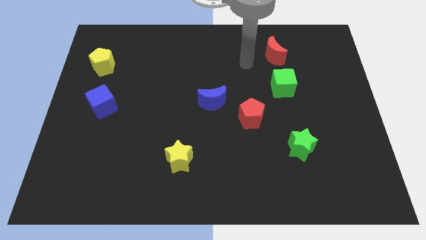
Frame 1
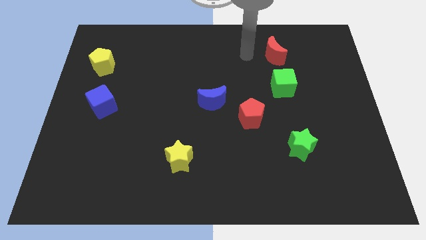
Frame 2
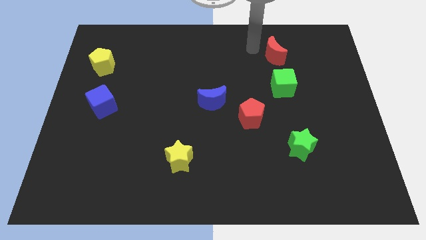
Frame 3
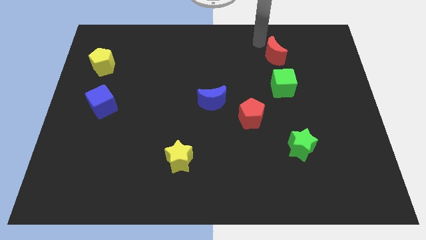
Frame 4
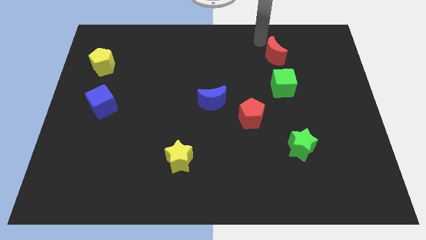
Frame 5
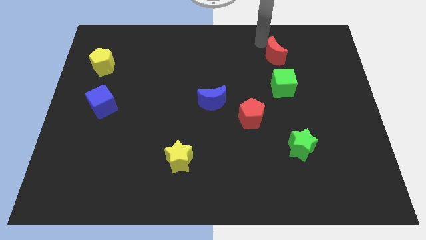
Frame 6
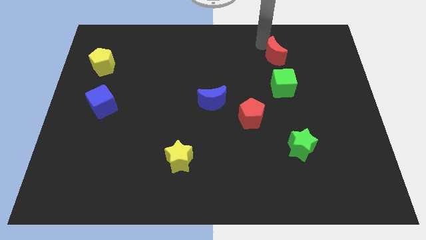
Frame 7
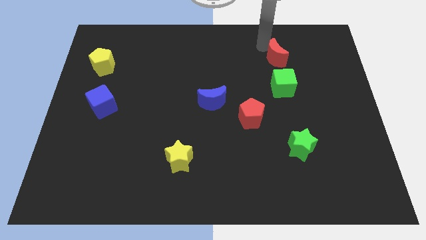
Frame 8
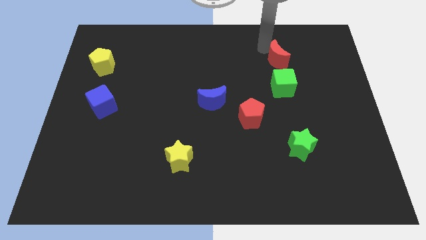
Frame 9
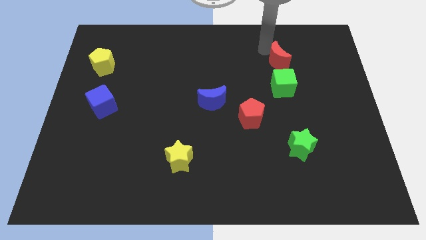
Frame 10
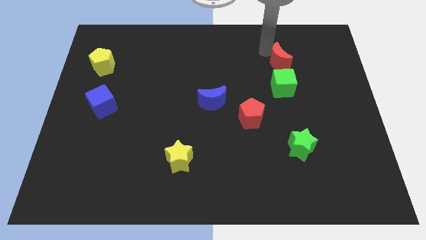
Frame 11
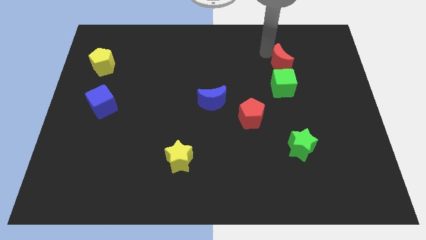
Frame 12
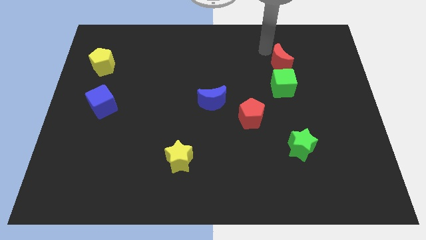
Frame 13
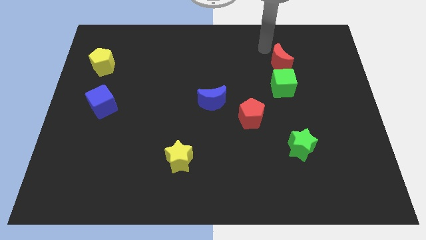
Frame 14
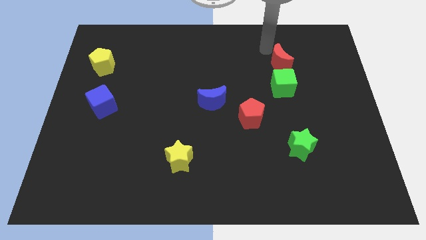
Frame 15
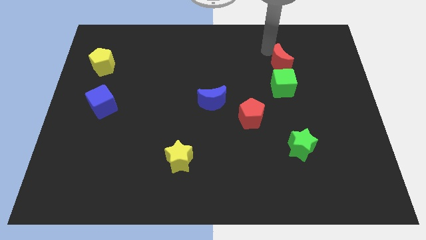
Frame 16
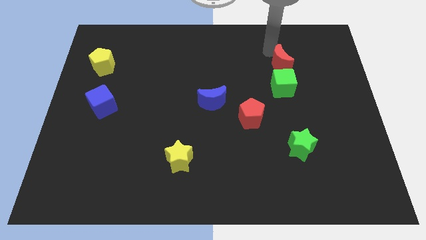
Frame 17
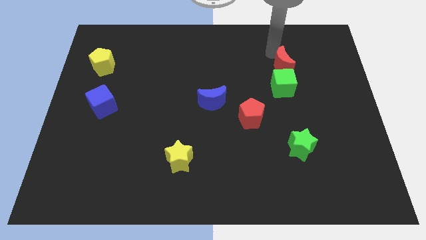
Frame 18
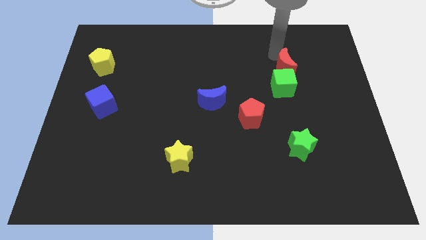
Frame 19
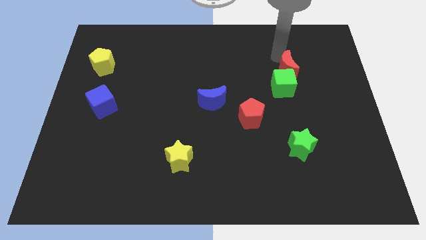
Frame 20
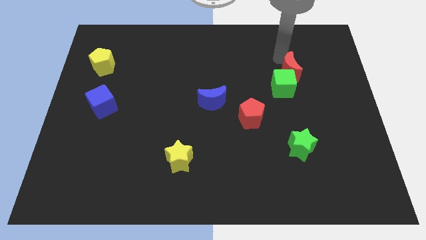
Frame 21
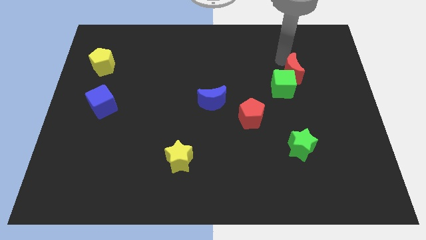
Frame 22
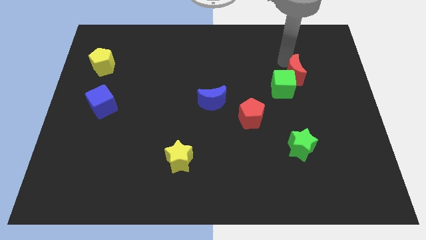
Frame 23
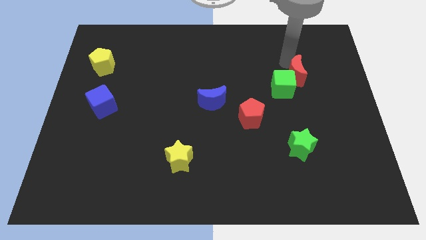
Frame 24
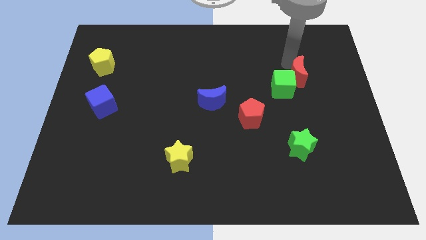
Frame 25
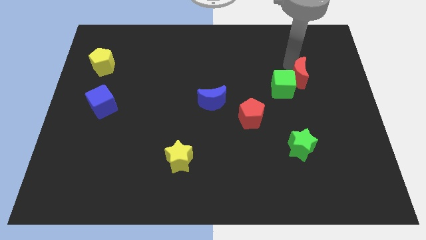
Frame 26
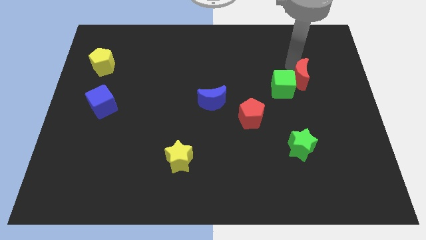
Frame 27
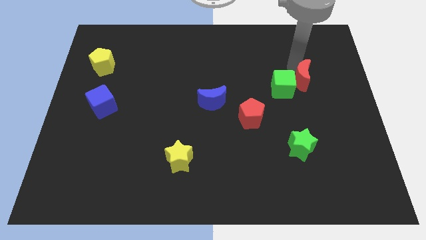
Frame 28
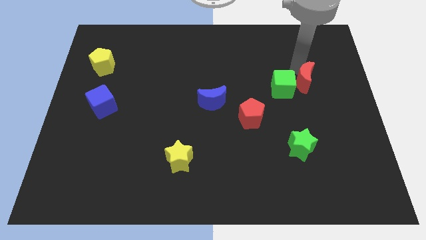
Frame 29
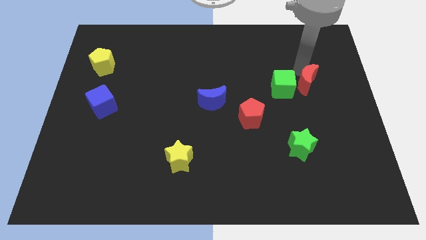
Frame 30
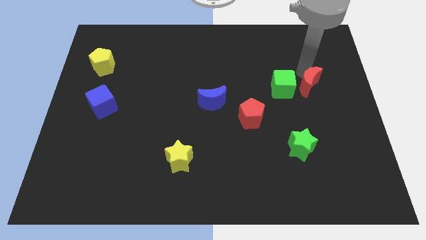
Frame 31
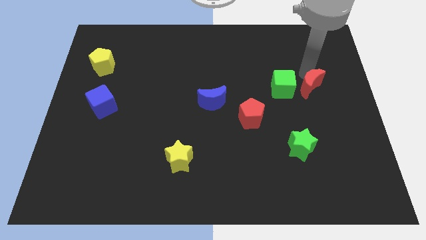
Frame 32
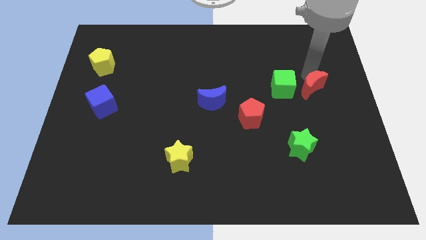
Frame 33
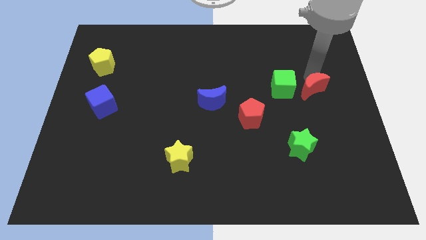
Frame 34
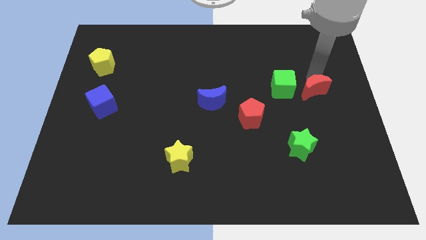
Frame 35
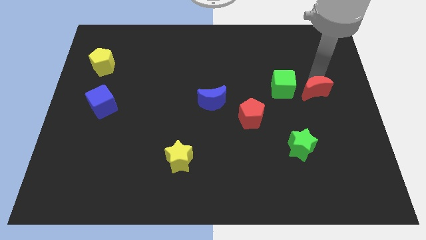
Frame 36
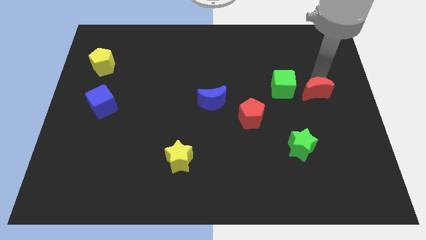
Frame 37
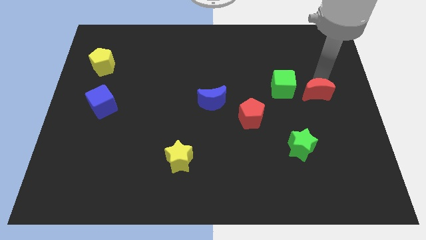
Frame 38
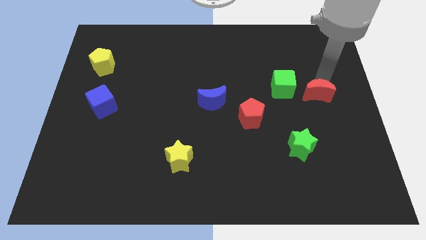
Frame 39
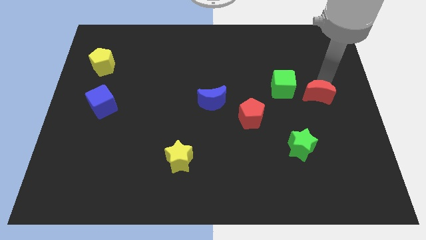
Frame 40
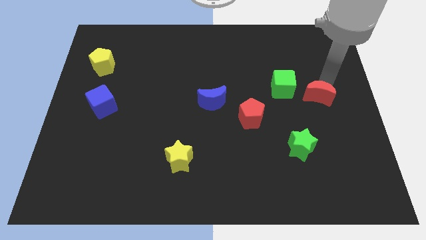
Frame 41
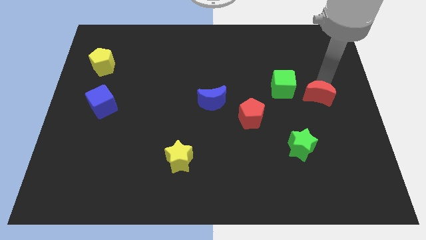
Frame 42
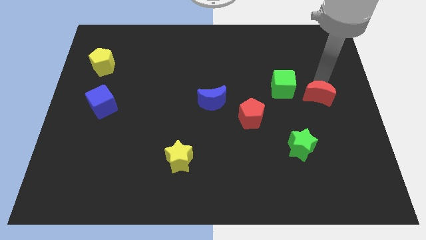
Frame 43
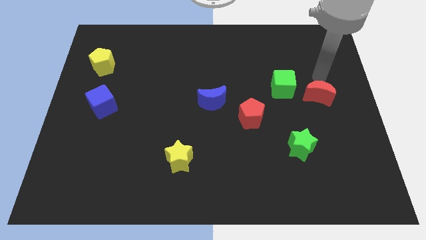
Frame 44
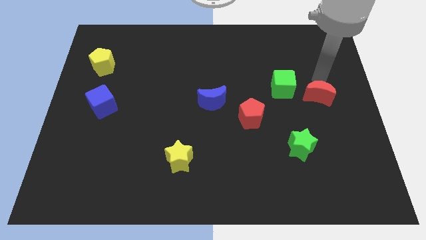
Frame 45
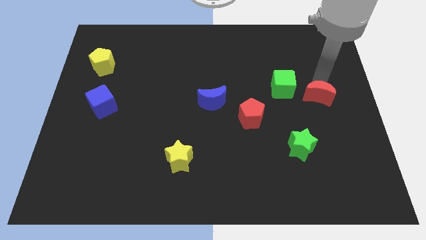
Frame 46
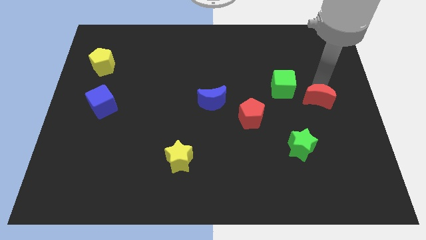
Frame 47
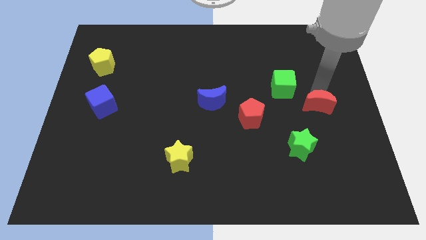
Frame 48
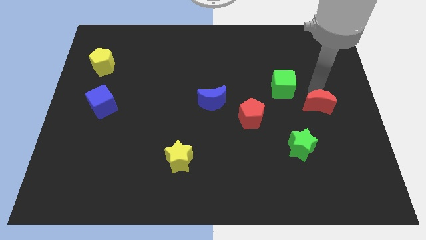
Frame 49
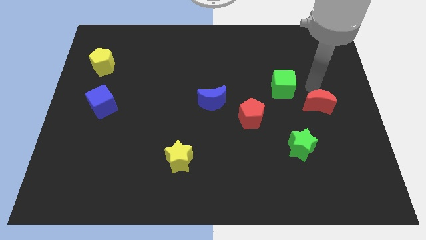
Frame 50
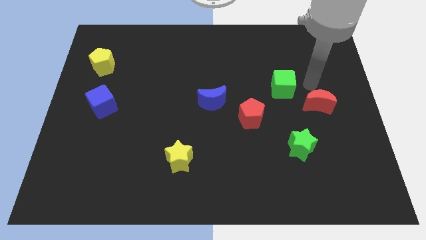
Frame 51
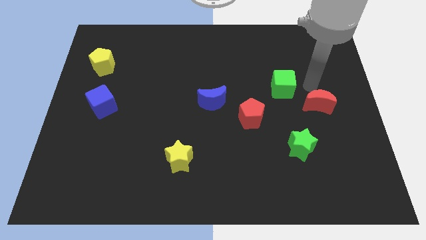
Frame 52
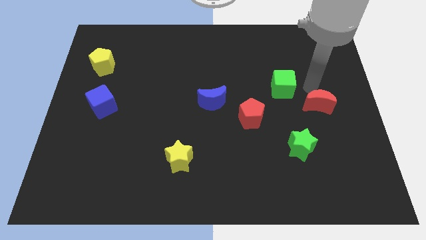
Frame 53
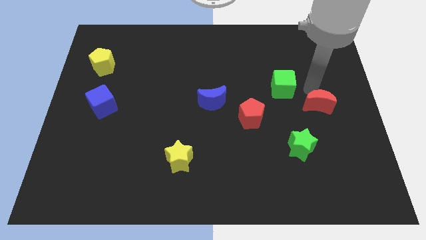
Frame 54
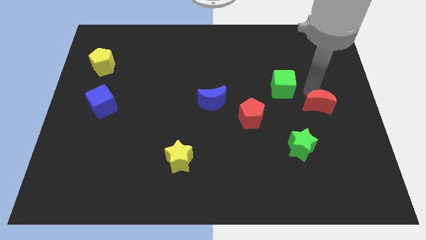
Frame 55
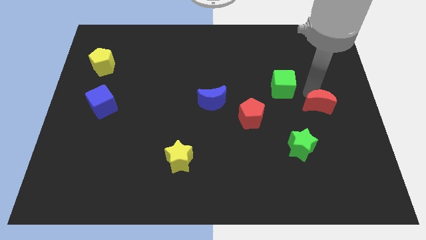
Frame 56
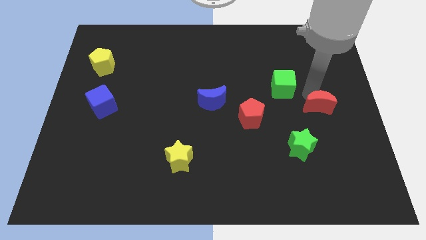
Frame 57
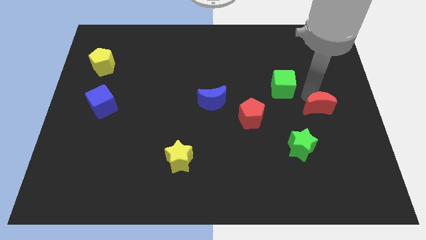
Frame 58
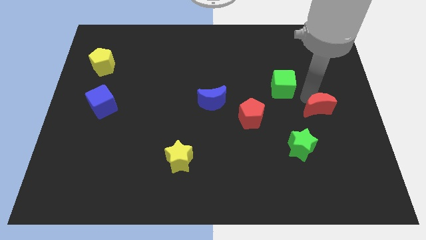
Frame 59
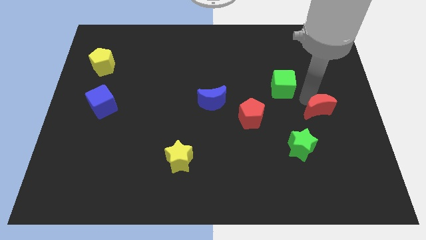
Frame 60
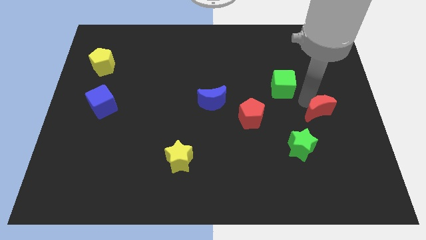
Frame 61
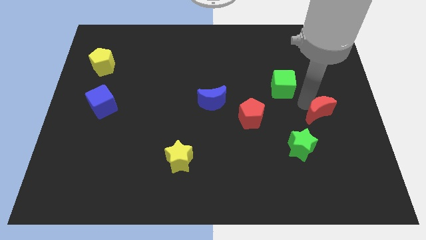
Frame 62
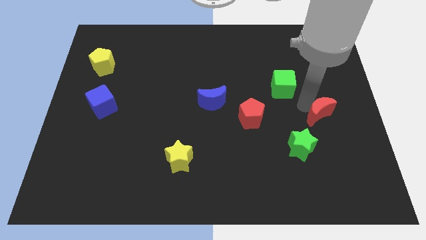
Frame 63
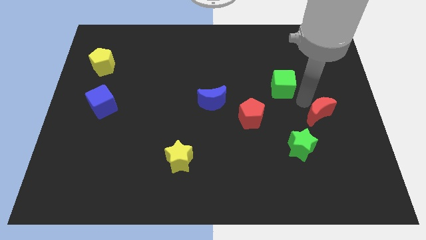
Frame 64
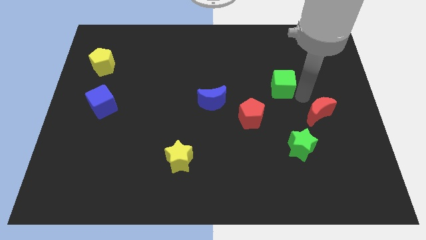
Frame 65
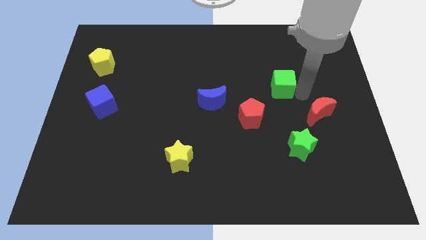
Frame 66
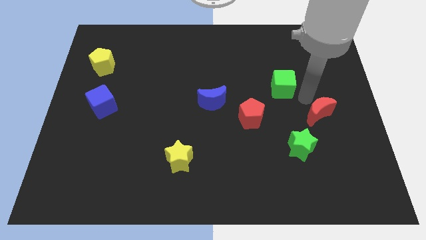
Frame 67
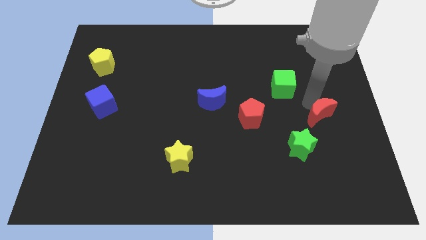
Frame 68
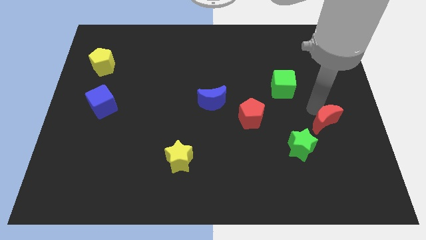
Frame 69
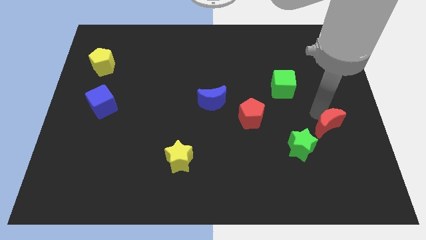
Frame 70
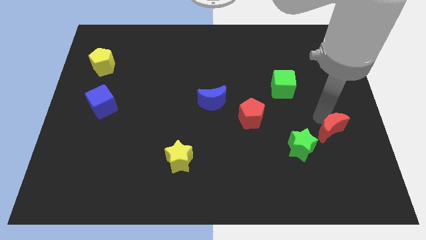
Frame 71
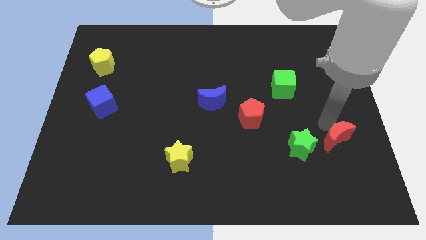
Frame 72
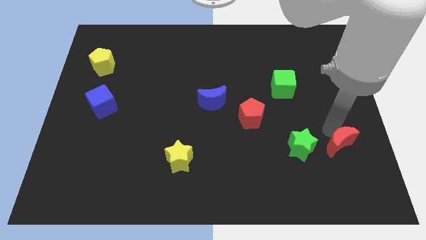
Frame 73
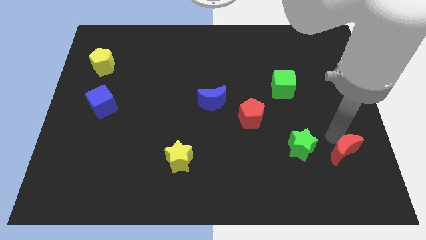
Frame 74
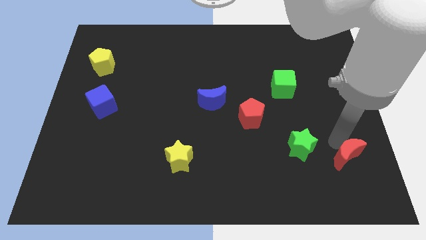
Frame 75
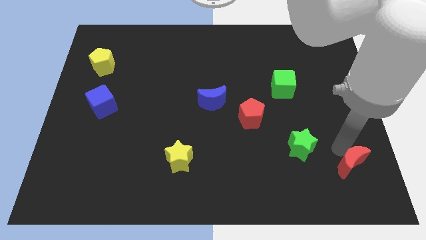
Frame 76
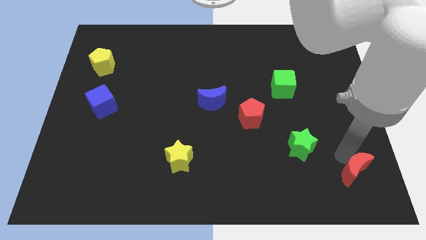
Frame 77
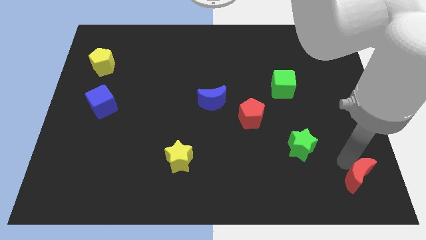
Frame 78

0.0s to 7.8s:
put the red moon to the bottom right of the board
